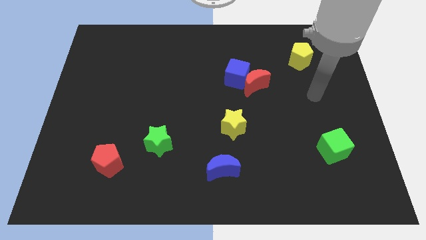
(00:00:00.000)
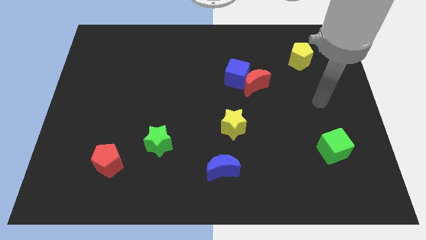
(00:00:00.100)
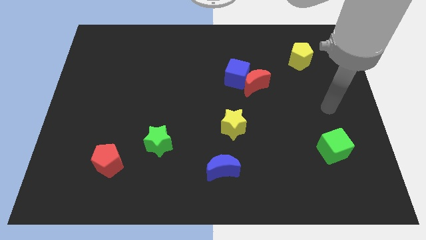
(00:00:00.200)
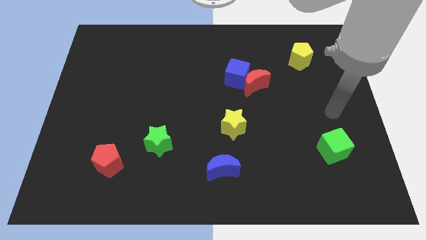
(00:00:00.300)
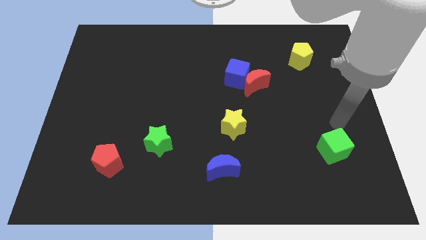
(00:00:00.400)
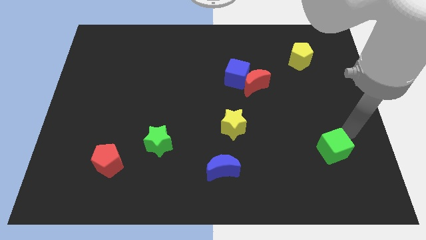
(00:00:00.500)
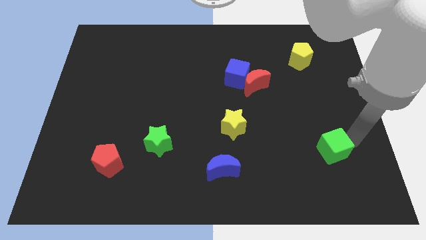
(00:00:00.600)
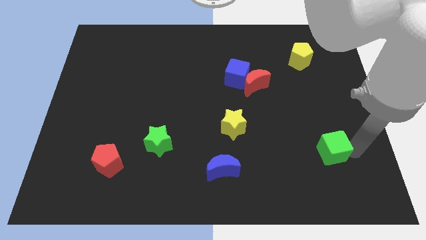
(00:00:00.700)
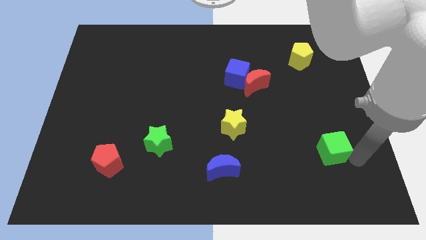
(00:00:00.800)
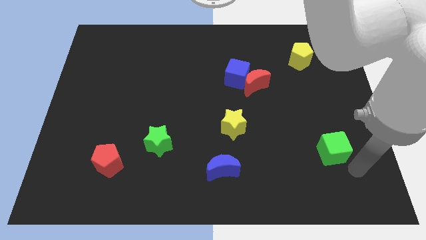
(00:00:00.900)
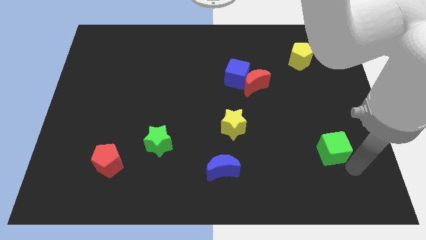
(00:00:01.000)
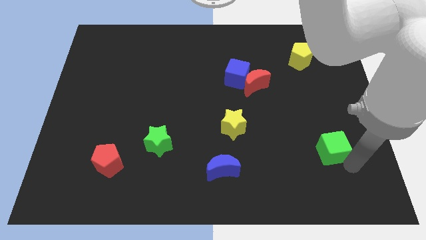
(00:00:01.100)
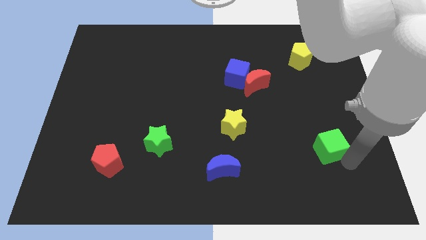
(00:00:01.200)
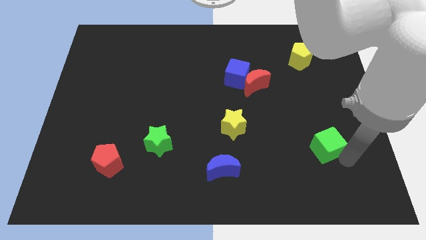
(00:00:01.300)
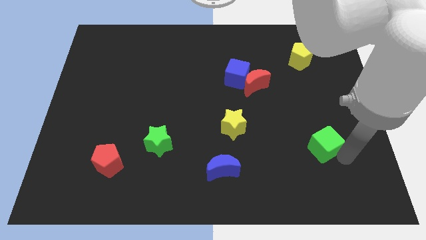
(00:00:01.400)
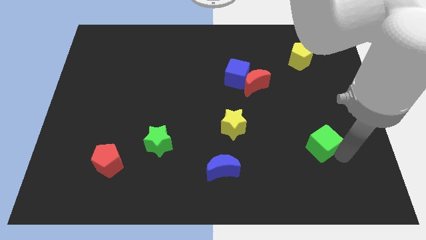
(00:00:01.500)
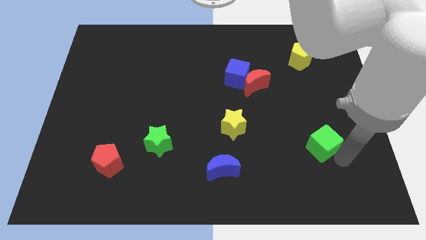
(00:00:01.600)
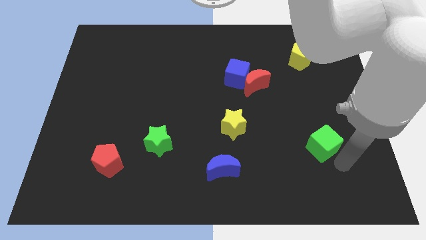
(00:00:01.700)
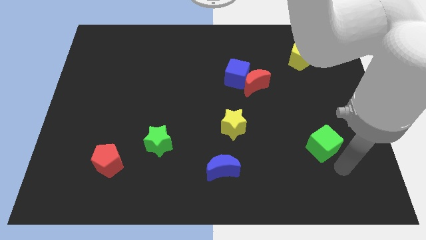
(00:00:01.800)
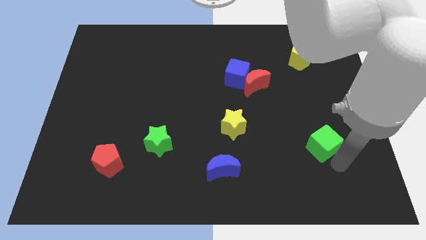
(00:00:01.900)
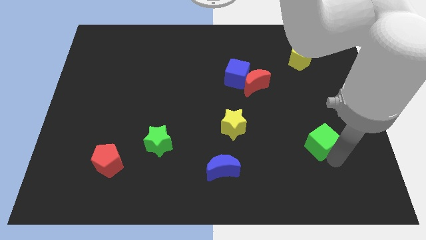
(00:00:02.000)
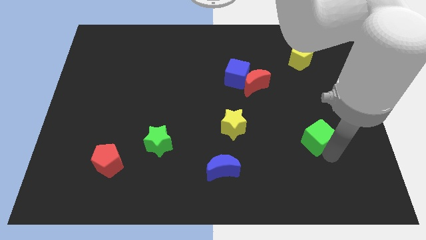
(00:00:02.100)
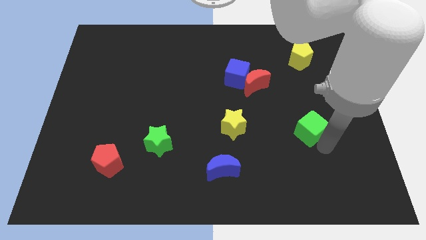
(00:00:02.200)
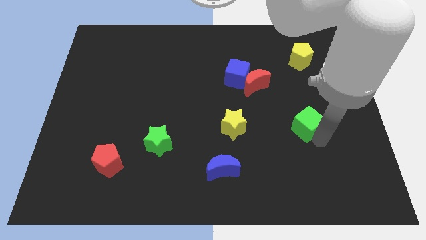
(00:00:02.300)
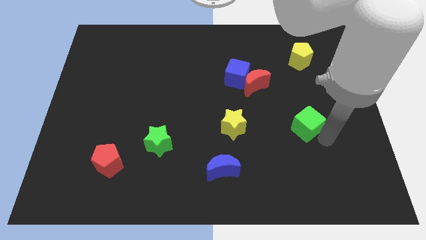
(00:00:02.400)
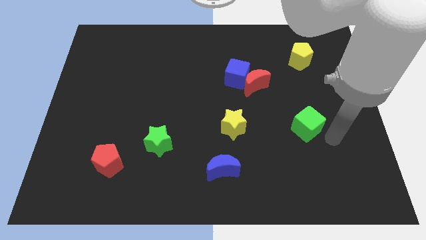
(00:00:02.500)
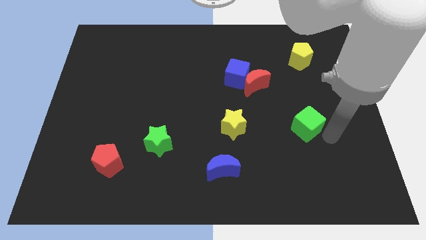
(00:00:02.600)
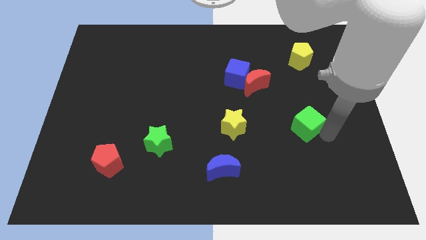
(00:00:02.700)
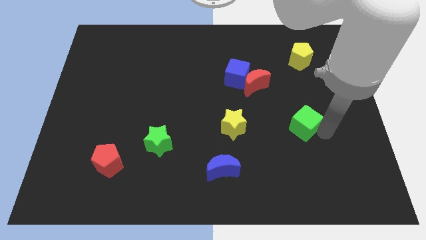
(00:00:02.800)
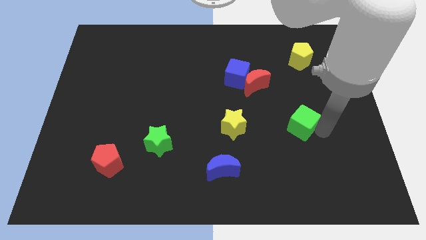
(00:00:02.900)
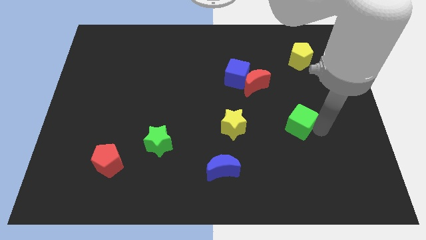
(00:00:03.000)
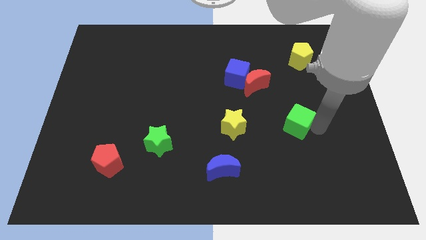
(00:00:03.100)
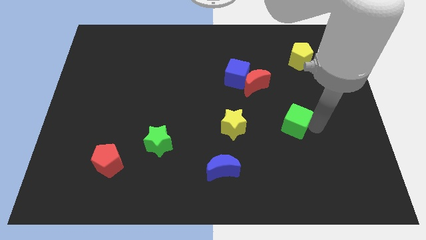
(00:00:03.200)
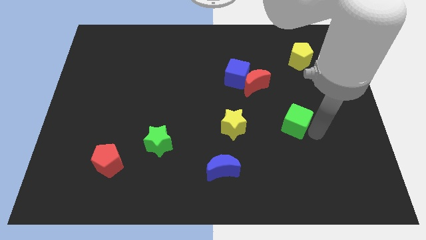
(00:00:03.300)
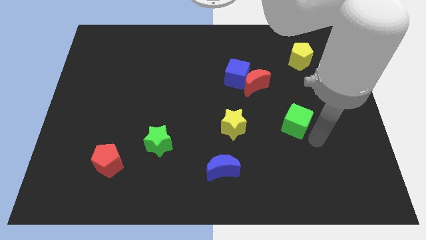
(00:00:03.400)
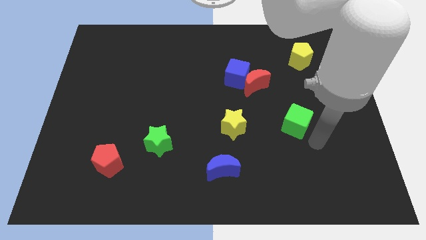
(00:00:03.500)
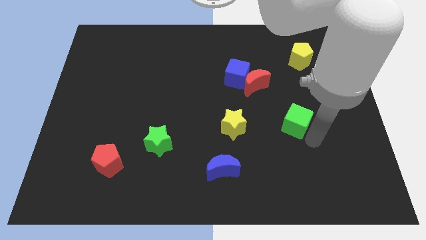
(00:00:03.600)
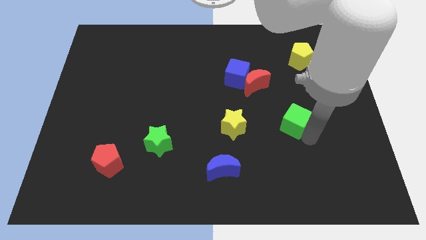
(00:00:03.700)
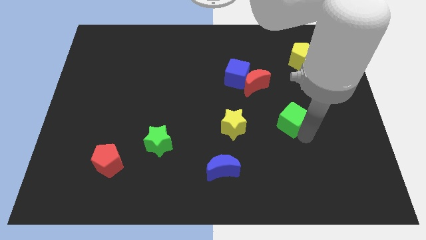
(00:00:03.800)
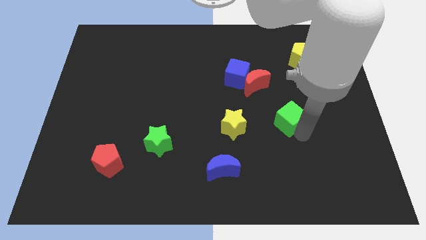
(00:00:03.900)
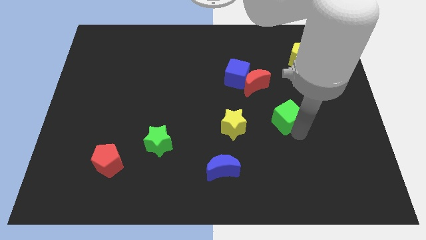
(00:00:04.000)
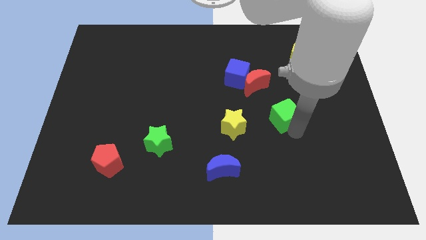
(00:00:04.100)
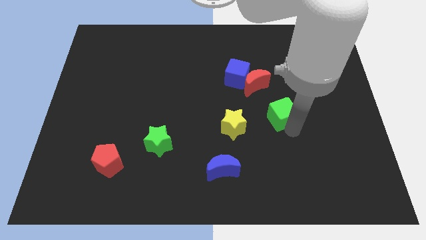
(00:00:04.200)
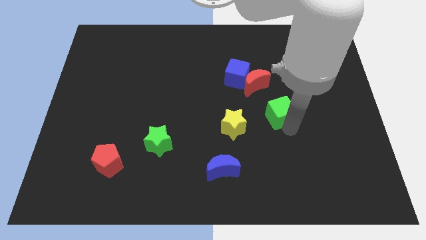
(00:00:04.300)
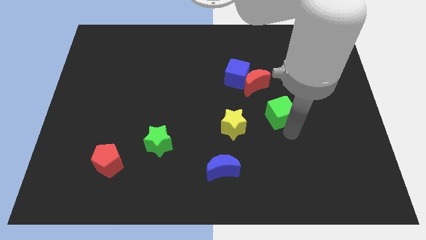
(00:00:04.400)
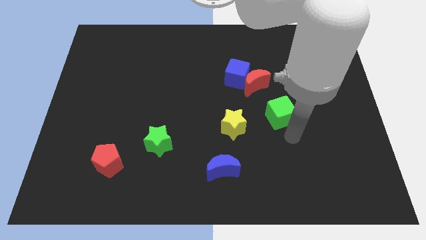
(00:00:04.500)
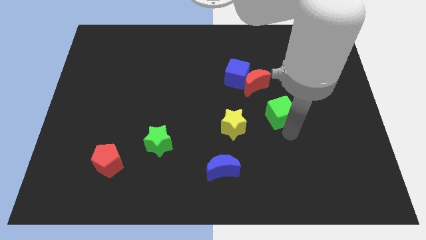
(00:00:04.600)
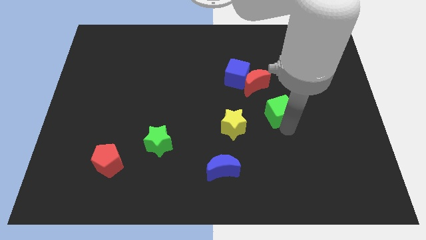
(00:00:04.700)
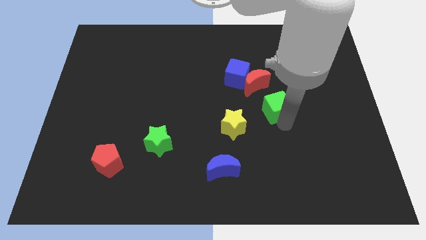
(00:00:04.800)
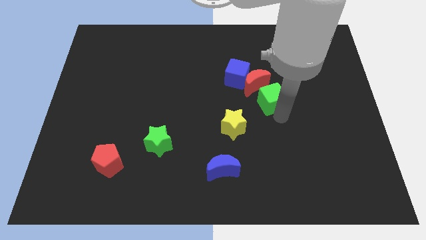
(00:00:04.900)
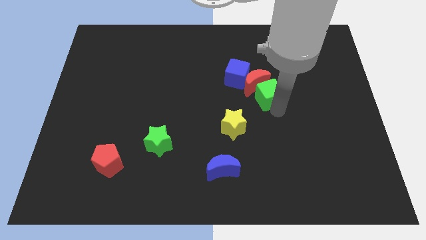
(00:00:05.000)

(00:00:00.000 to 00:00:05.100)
slide the green cube close to the red moon

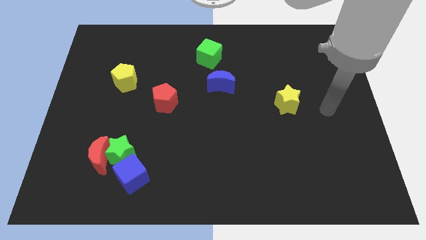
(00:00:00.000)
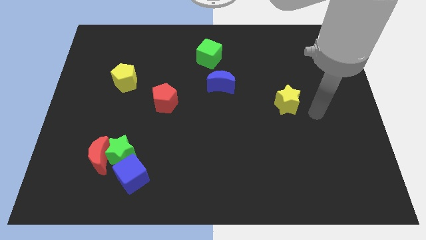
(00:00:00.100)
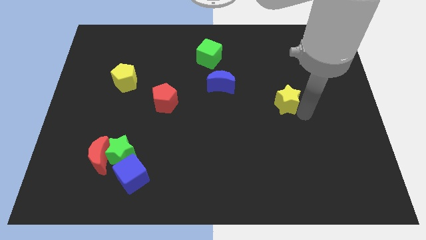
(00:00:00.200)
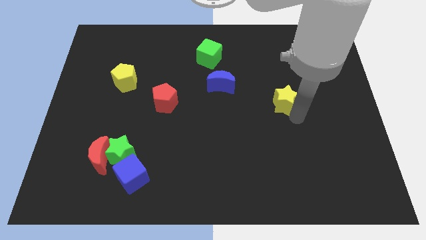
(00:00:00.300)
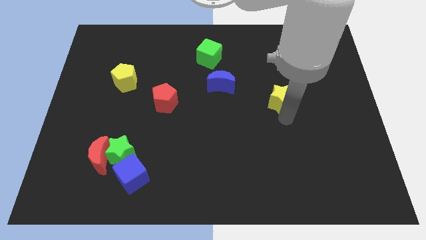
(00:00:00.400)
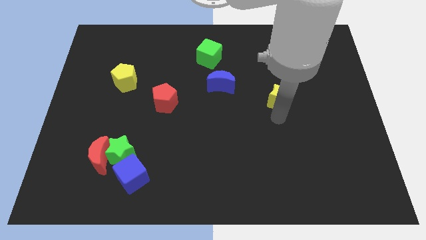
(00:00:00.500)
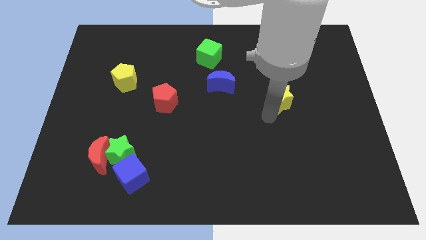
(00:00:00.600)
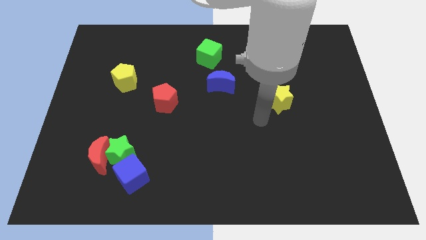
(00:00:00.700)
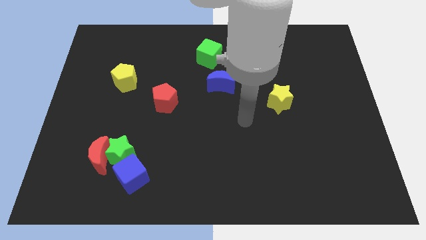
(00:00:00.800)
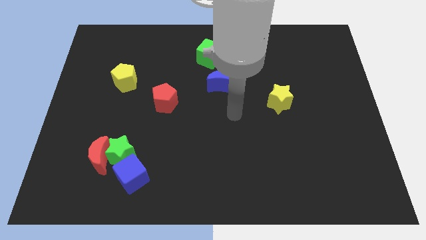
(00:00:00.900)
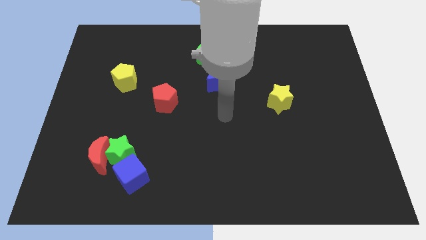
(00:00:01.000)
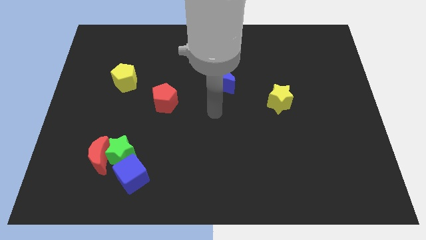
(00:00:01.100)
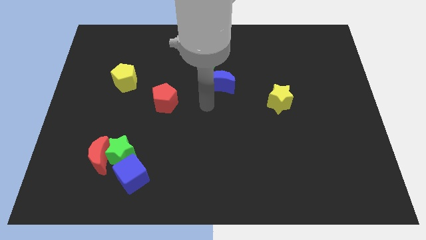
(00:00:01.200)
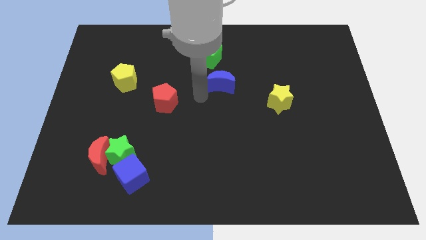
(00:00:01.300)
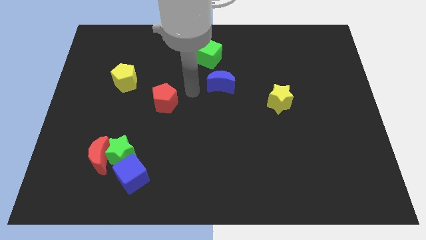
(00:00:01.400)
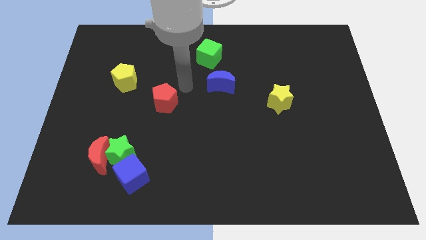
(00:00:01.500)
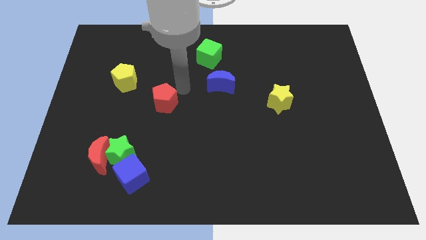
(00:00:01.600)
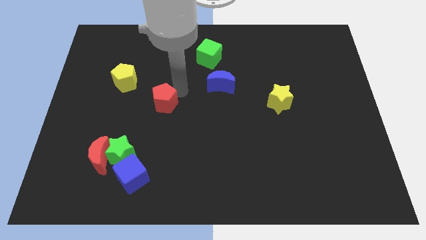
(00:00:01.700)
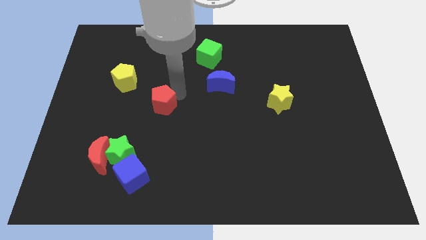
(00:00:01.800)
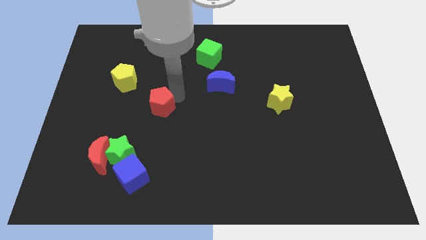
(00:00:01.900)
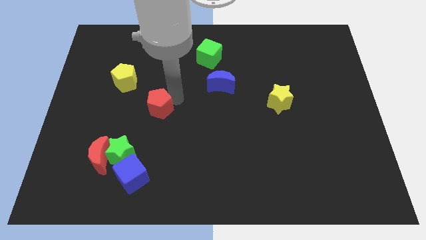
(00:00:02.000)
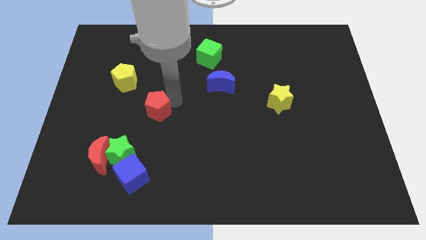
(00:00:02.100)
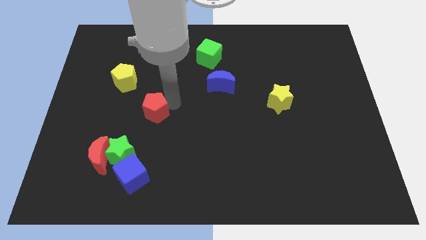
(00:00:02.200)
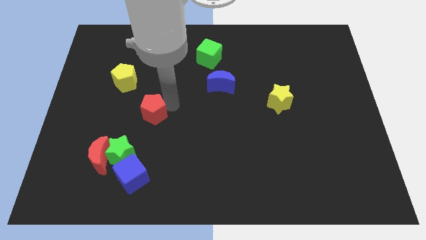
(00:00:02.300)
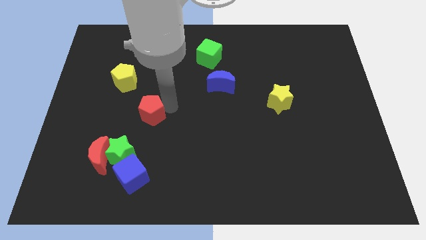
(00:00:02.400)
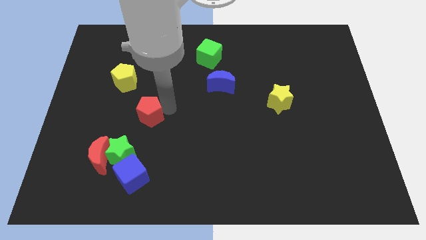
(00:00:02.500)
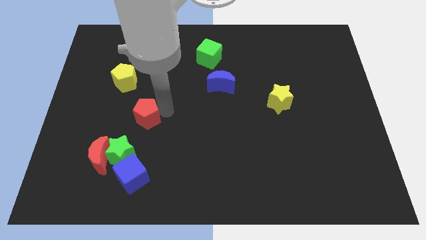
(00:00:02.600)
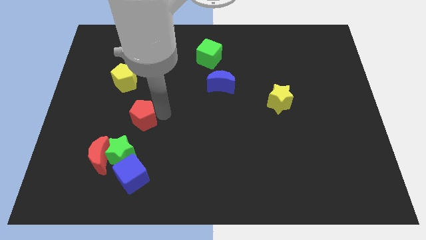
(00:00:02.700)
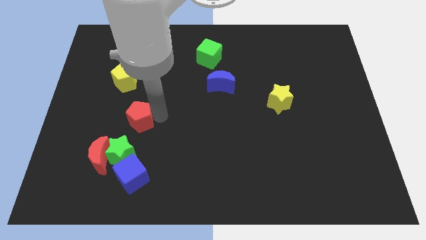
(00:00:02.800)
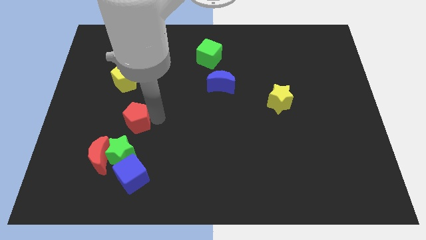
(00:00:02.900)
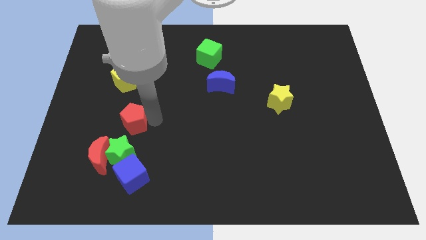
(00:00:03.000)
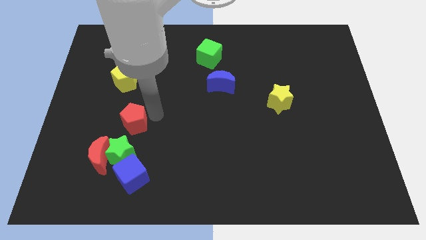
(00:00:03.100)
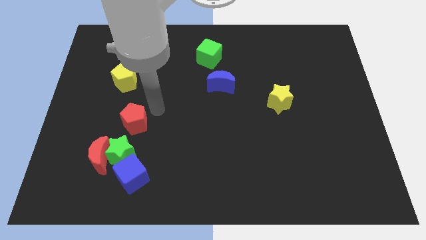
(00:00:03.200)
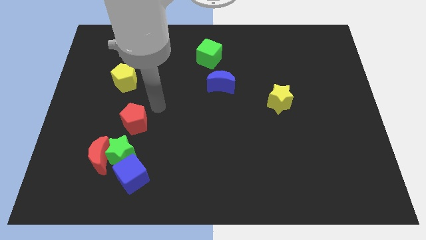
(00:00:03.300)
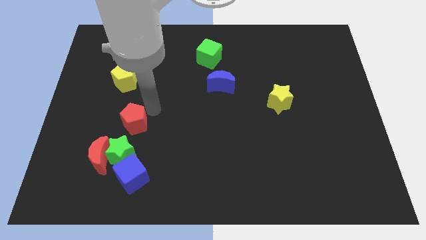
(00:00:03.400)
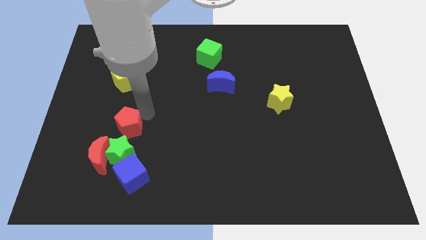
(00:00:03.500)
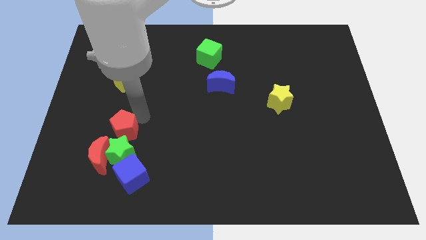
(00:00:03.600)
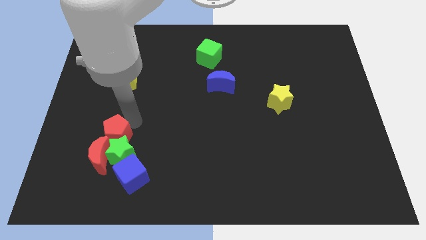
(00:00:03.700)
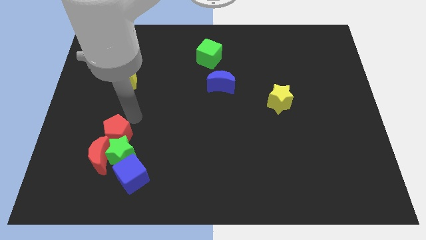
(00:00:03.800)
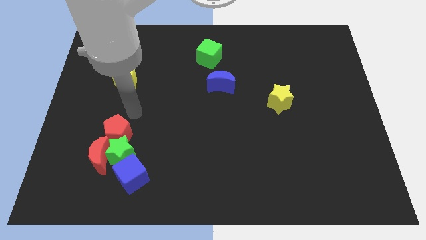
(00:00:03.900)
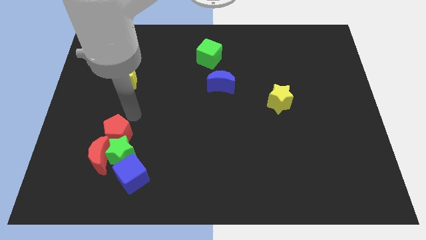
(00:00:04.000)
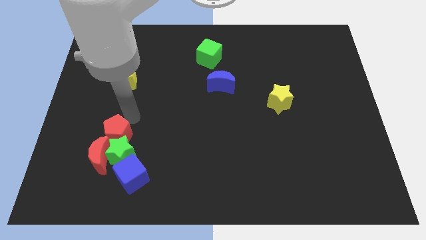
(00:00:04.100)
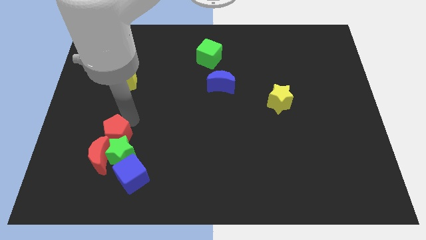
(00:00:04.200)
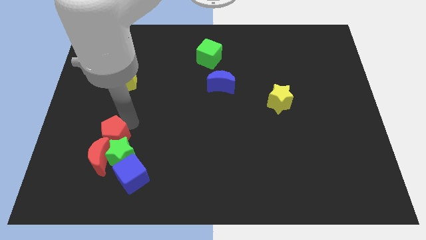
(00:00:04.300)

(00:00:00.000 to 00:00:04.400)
slide the red pentagon next to the red moon
